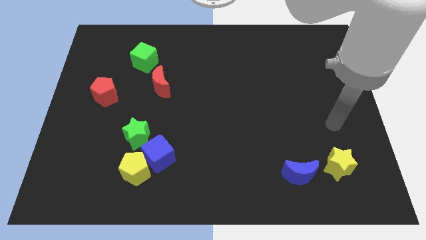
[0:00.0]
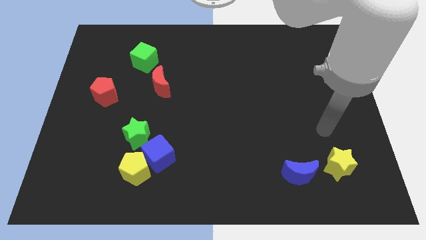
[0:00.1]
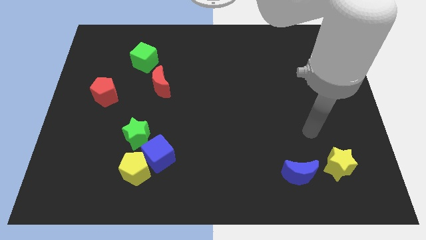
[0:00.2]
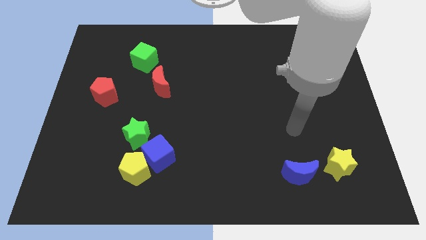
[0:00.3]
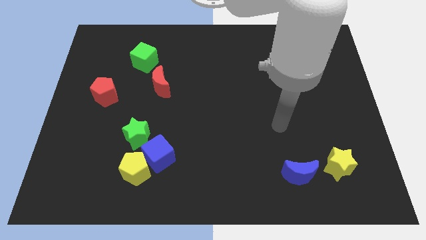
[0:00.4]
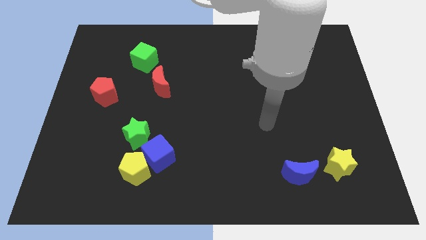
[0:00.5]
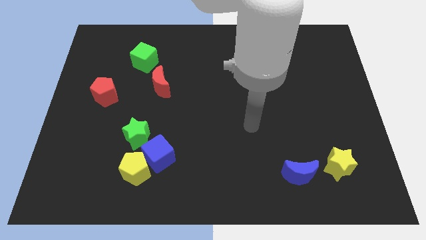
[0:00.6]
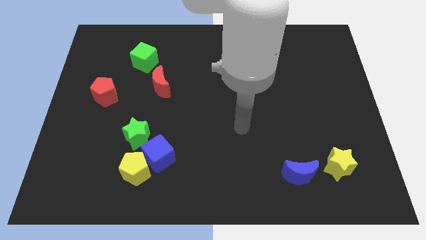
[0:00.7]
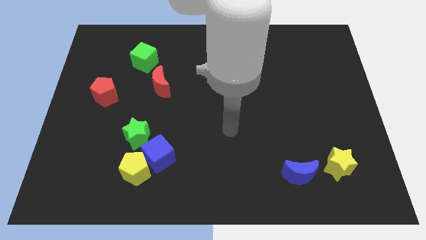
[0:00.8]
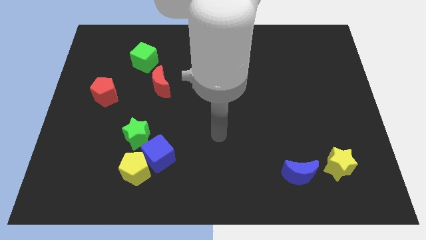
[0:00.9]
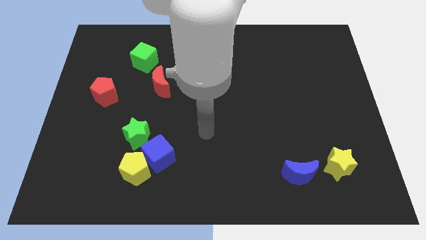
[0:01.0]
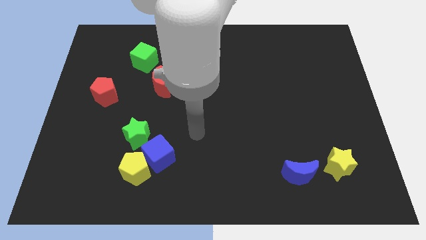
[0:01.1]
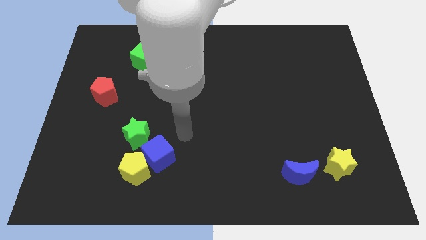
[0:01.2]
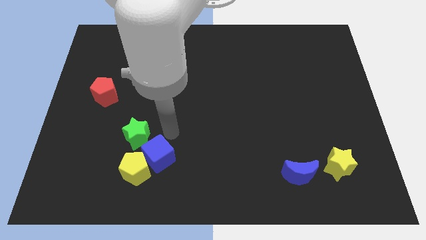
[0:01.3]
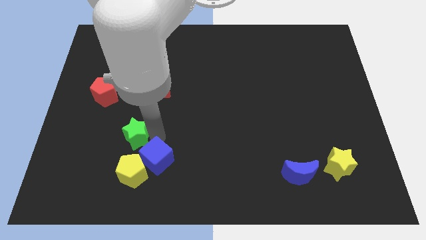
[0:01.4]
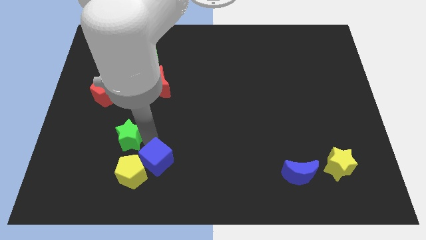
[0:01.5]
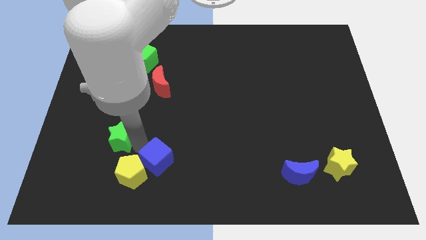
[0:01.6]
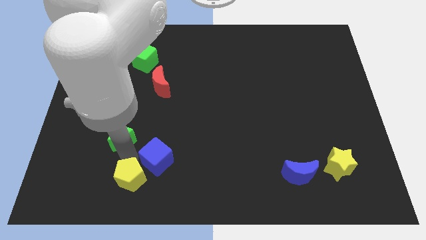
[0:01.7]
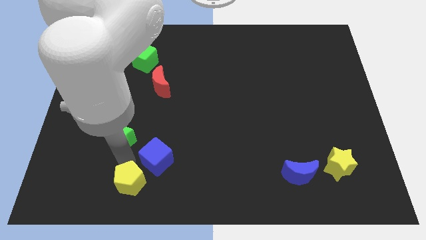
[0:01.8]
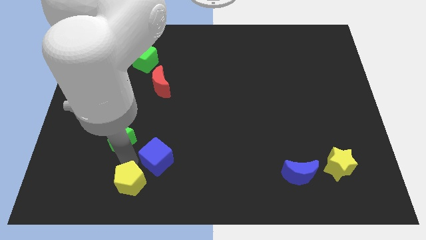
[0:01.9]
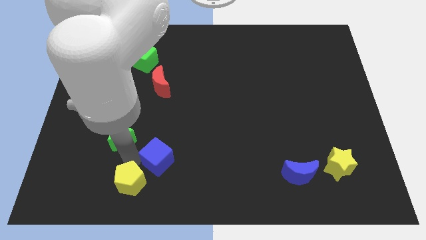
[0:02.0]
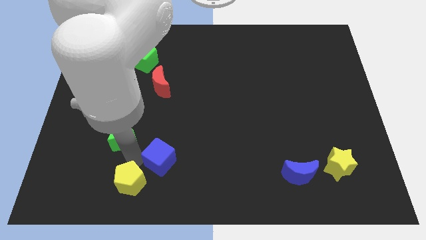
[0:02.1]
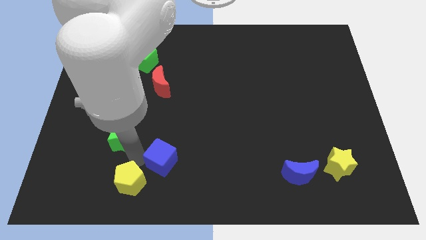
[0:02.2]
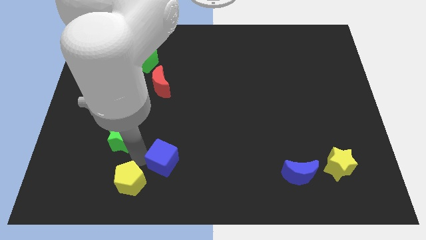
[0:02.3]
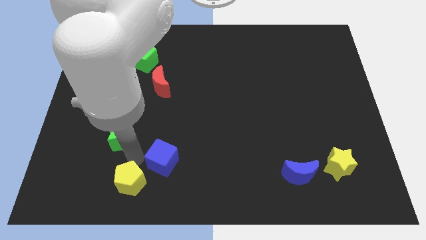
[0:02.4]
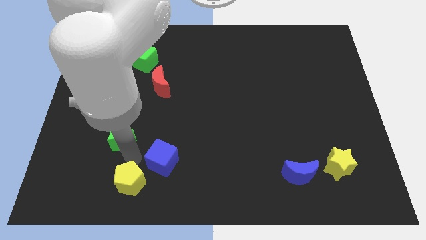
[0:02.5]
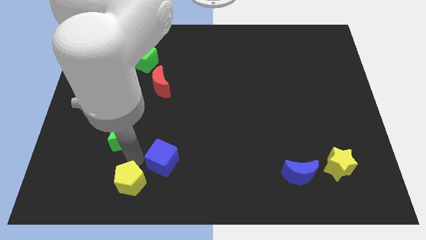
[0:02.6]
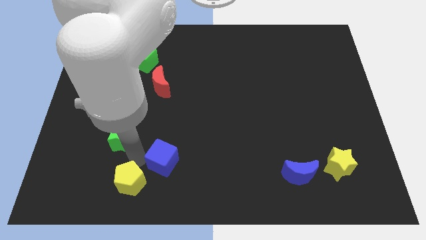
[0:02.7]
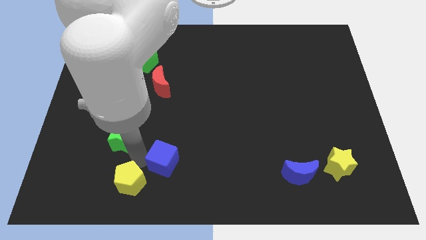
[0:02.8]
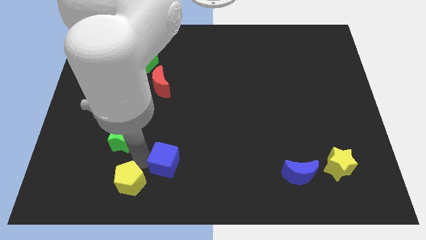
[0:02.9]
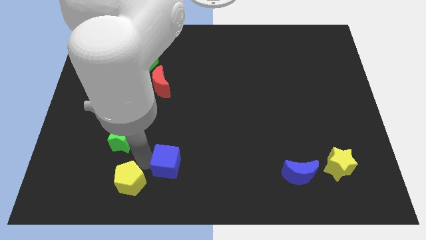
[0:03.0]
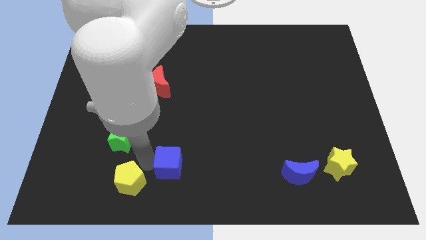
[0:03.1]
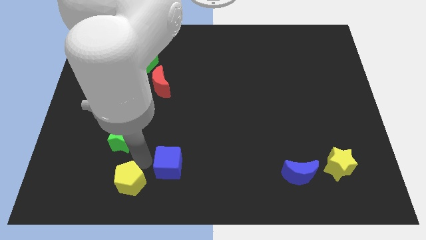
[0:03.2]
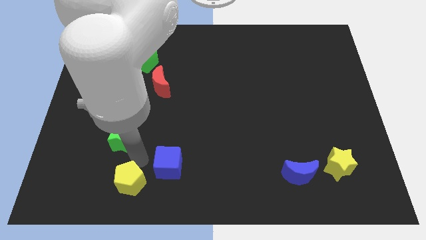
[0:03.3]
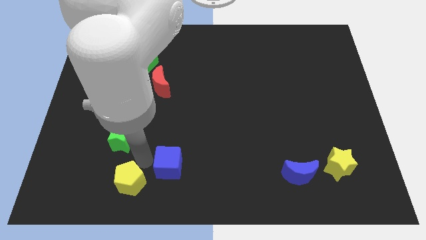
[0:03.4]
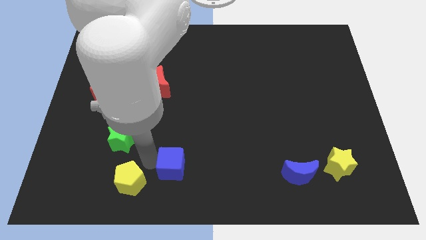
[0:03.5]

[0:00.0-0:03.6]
separate the blue cube from the yellow pentagon and green star

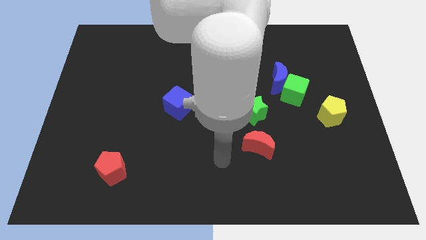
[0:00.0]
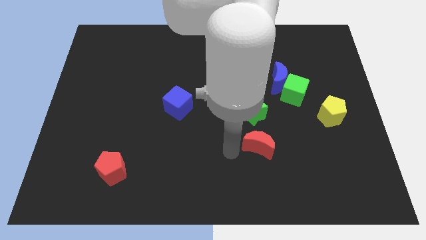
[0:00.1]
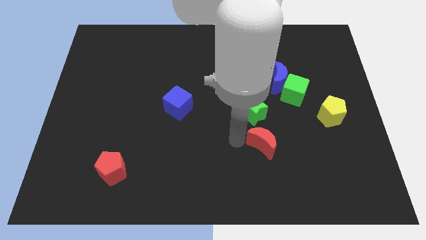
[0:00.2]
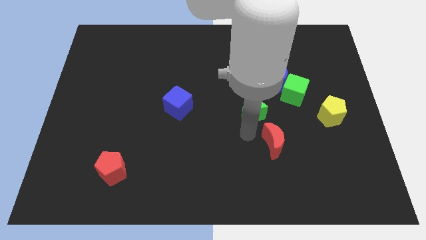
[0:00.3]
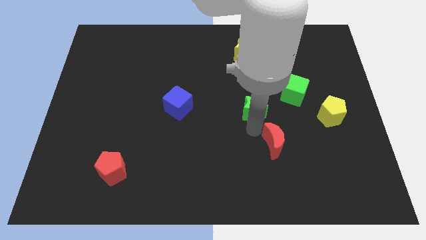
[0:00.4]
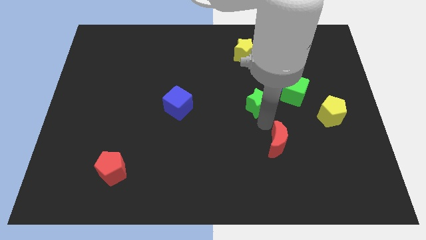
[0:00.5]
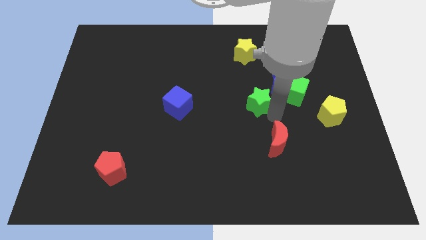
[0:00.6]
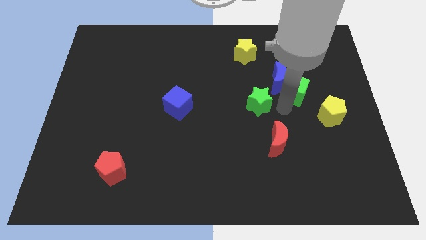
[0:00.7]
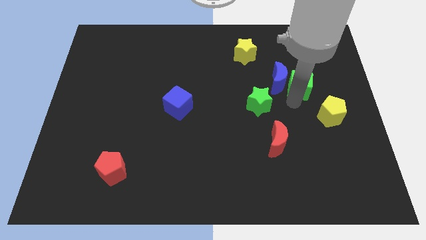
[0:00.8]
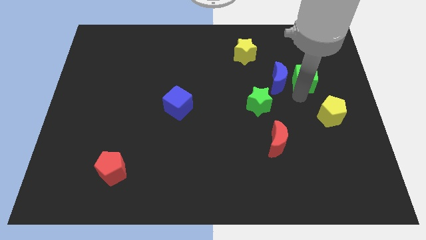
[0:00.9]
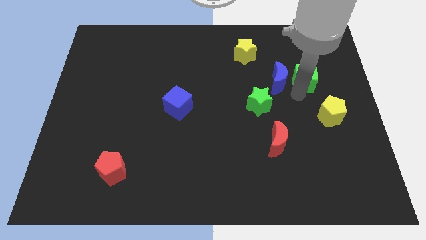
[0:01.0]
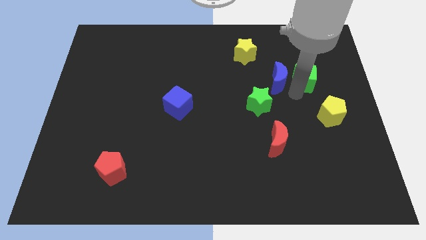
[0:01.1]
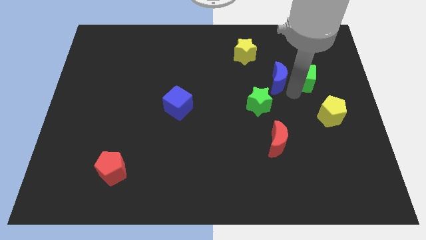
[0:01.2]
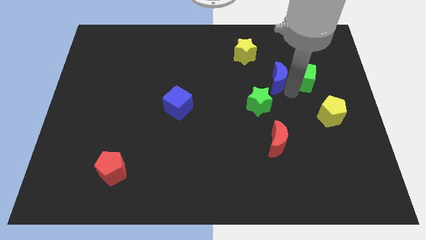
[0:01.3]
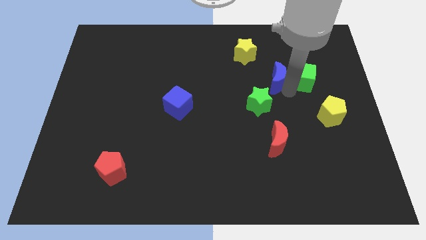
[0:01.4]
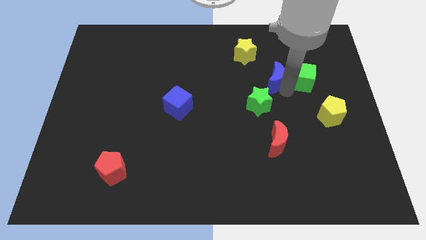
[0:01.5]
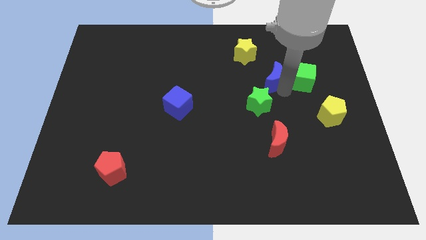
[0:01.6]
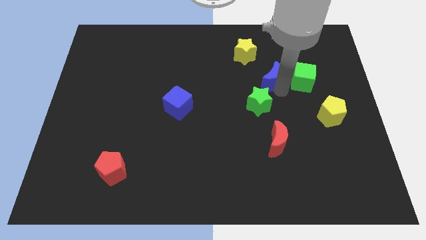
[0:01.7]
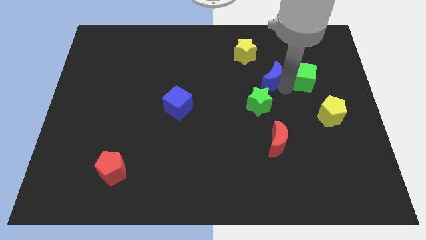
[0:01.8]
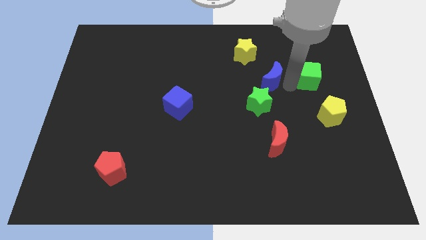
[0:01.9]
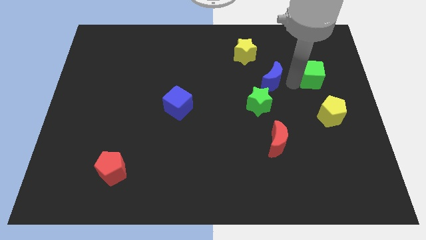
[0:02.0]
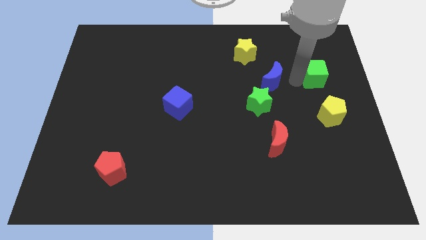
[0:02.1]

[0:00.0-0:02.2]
separate the blue moon from the green cube

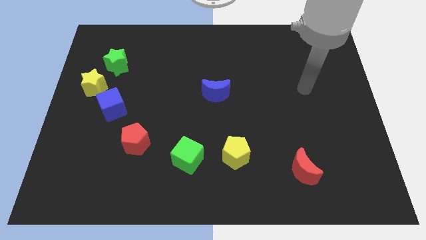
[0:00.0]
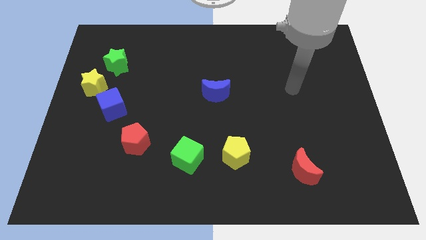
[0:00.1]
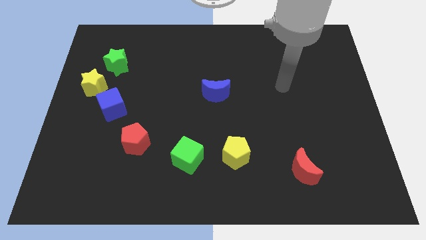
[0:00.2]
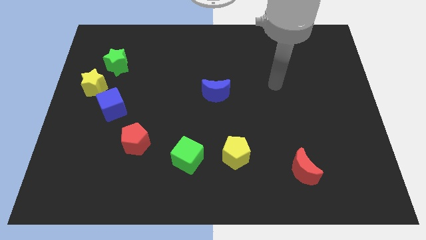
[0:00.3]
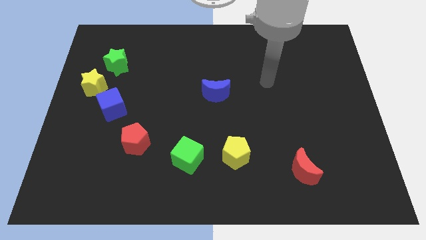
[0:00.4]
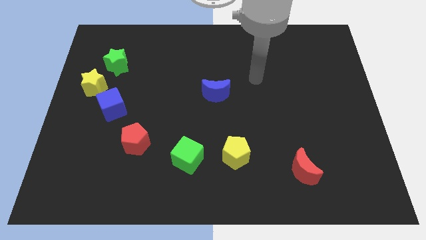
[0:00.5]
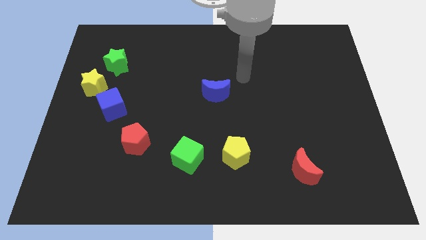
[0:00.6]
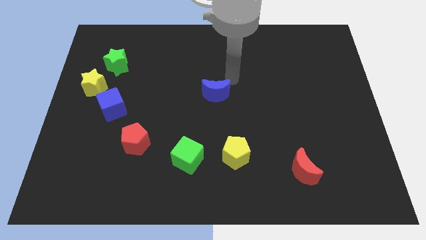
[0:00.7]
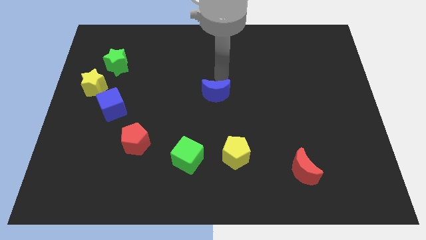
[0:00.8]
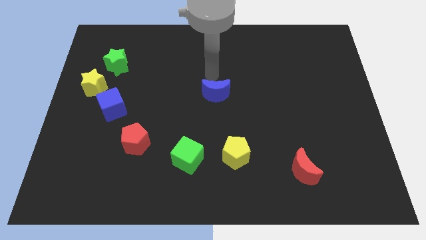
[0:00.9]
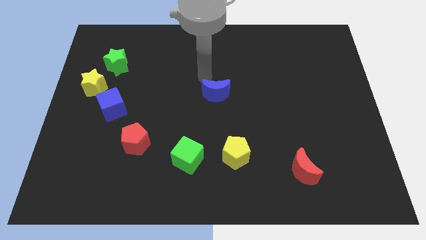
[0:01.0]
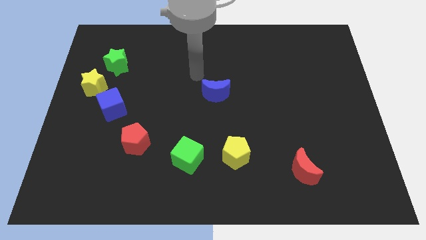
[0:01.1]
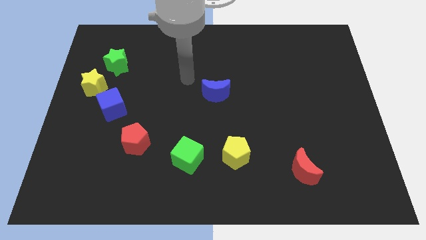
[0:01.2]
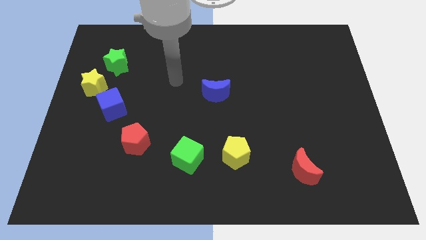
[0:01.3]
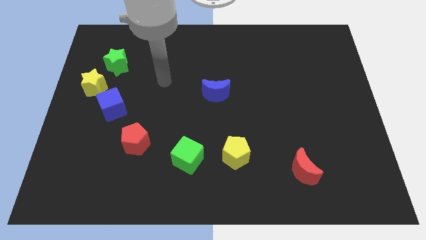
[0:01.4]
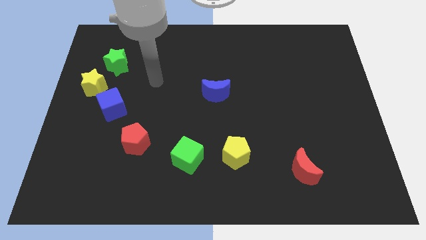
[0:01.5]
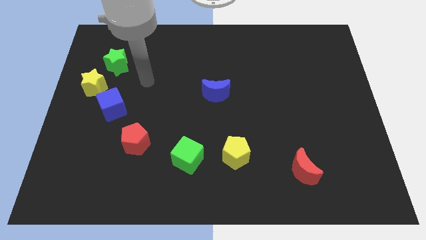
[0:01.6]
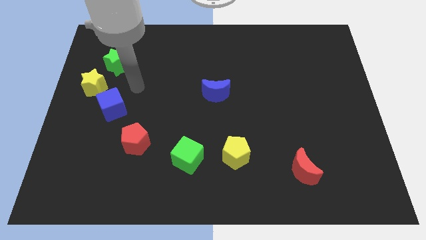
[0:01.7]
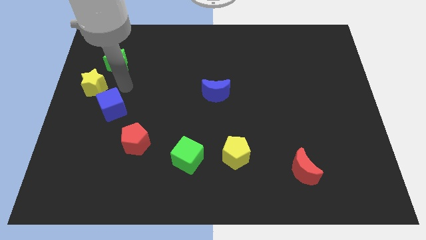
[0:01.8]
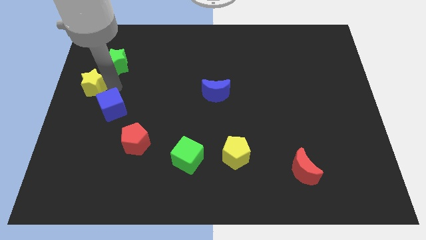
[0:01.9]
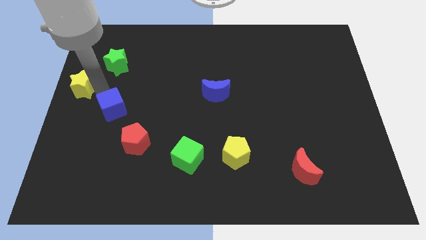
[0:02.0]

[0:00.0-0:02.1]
pull the blue cube apart from the yellow star

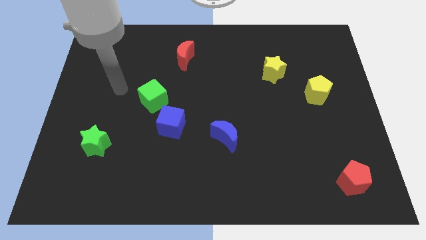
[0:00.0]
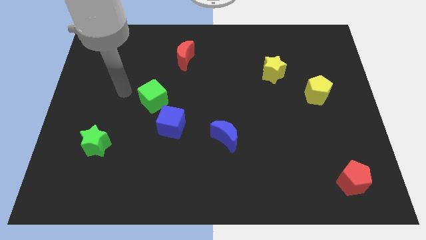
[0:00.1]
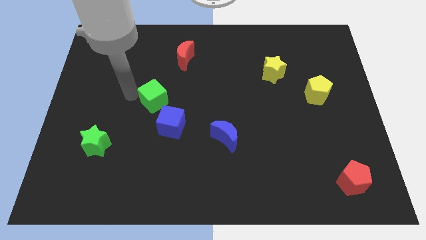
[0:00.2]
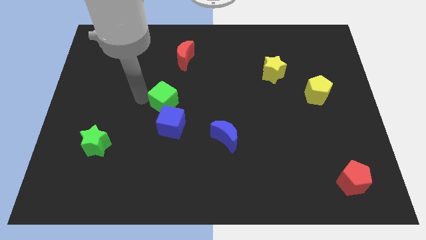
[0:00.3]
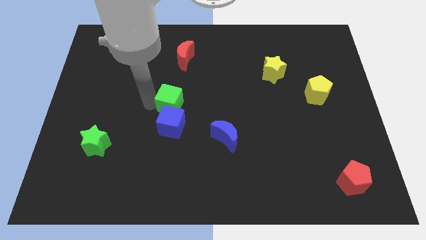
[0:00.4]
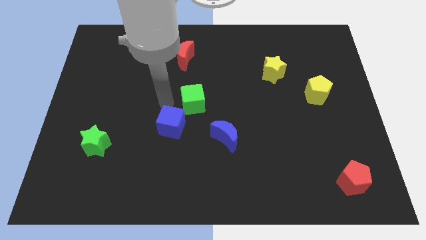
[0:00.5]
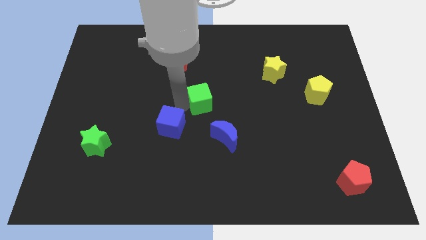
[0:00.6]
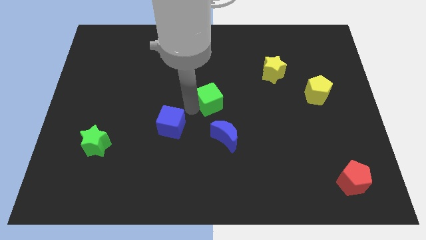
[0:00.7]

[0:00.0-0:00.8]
move the blue cube away from the green cube

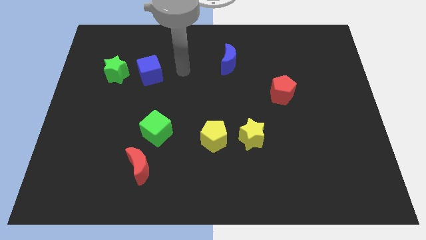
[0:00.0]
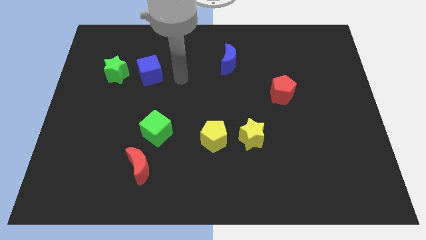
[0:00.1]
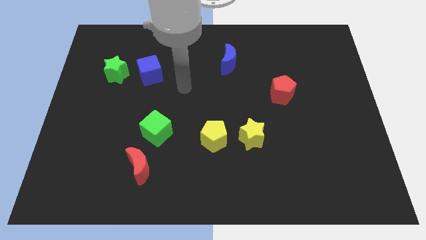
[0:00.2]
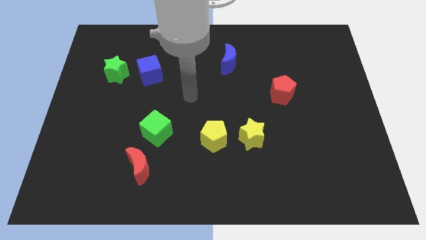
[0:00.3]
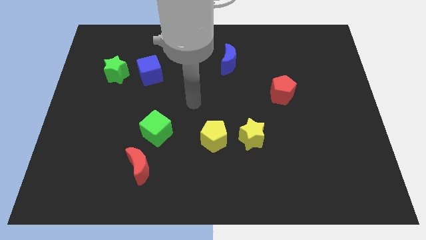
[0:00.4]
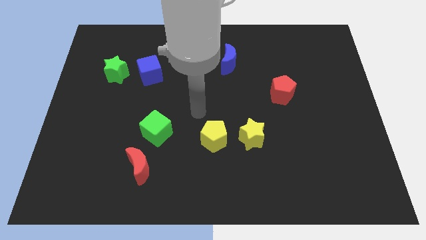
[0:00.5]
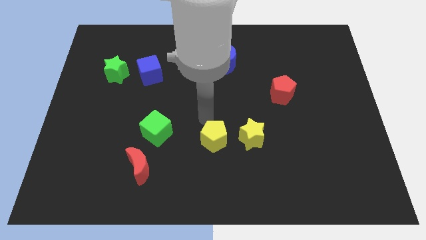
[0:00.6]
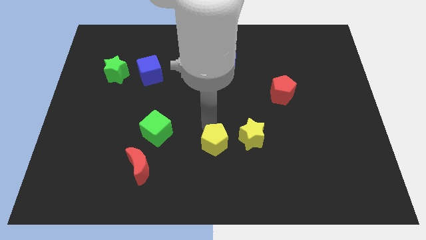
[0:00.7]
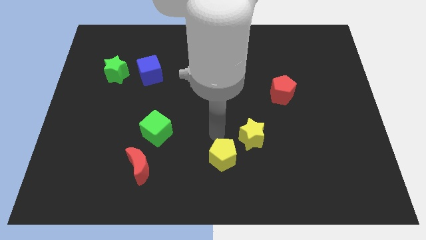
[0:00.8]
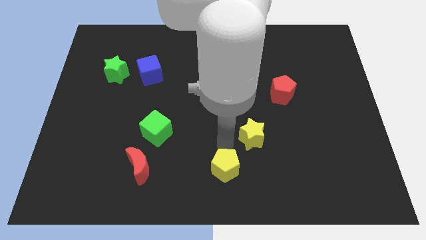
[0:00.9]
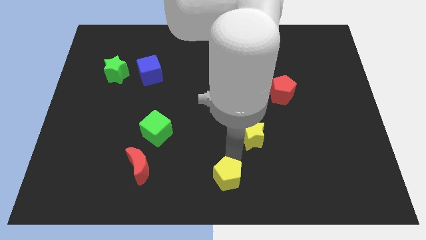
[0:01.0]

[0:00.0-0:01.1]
pull the yellow star apart from the yellow pentagon
